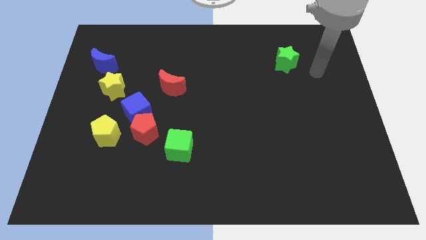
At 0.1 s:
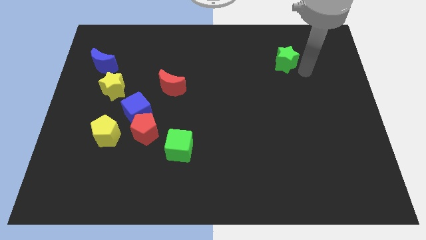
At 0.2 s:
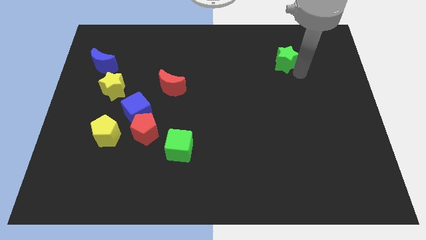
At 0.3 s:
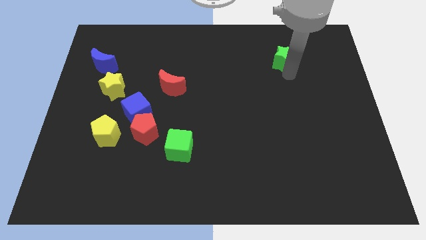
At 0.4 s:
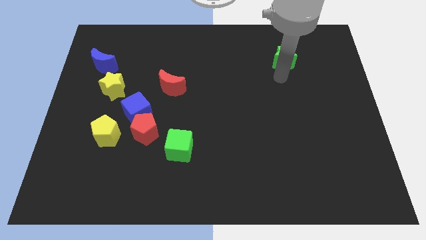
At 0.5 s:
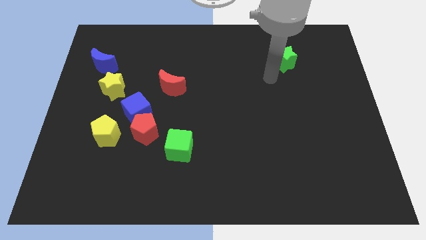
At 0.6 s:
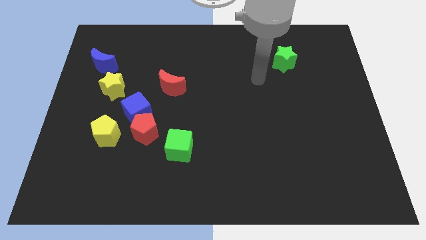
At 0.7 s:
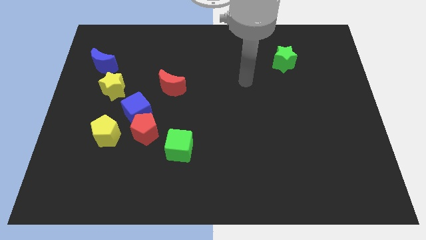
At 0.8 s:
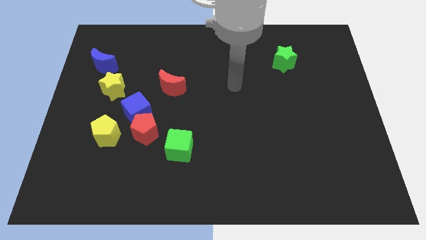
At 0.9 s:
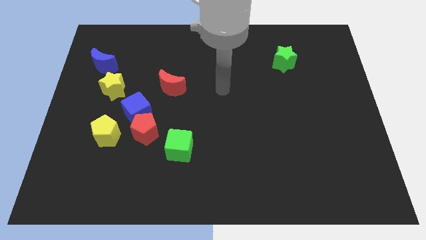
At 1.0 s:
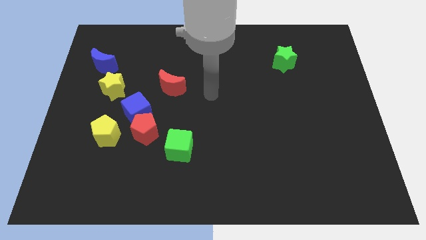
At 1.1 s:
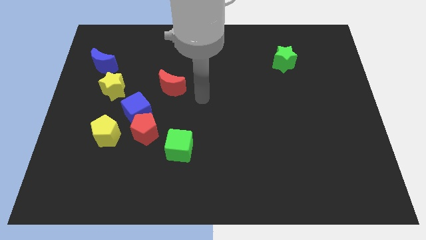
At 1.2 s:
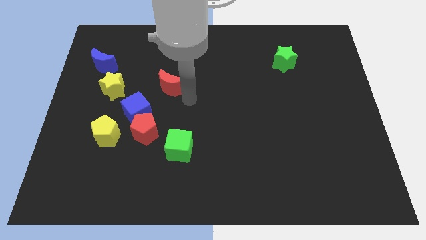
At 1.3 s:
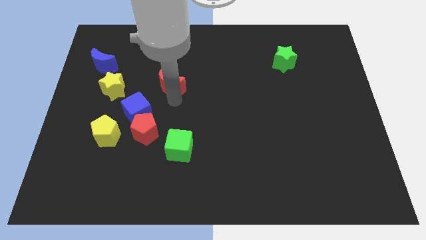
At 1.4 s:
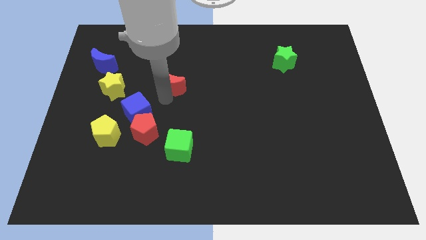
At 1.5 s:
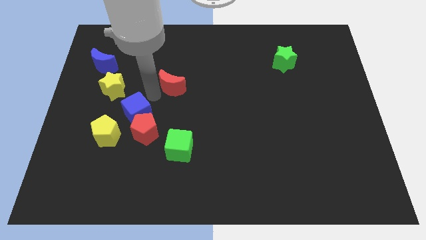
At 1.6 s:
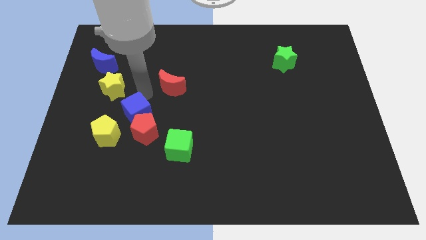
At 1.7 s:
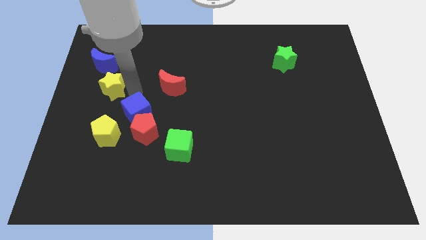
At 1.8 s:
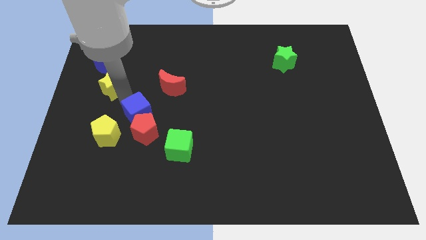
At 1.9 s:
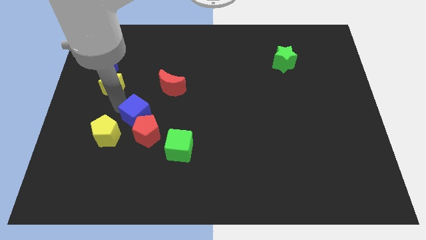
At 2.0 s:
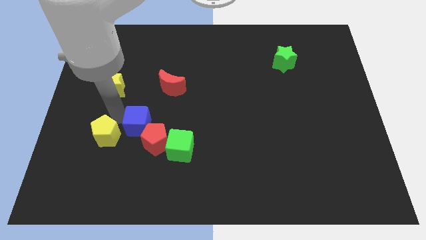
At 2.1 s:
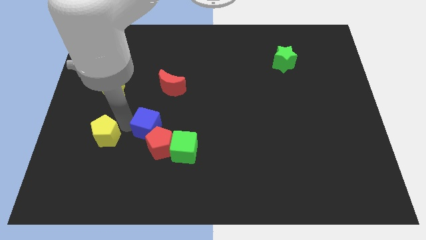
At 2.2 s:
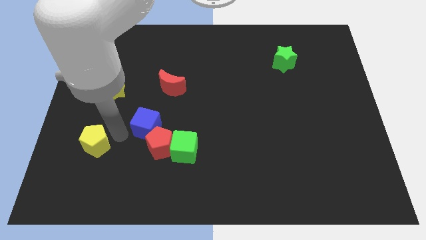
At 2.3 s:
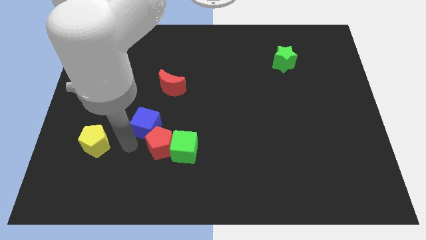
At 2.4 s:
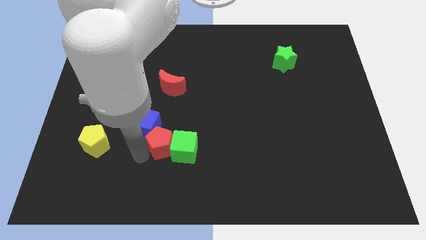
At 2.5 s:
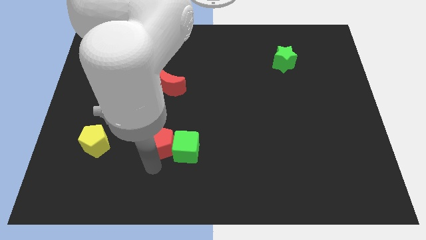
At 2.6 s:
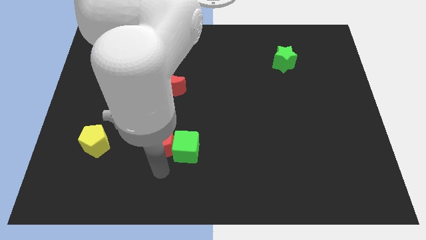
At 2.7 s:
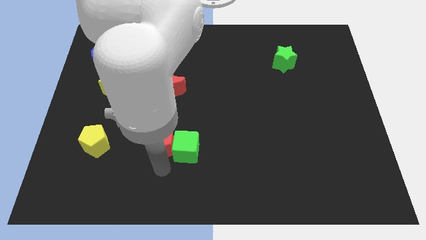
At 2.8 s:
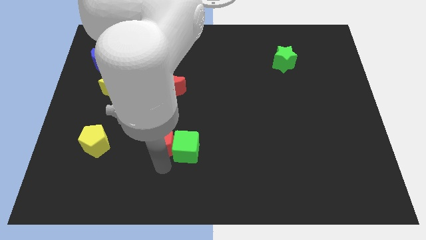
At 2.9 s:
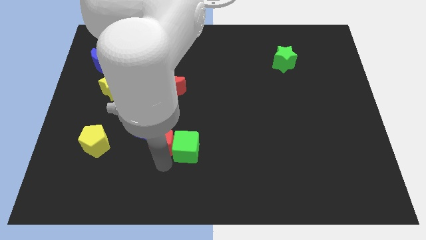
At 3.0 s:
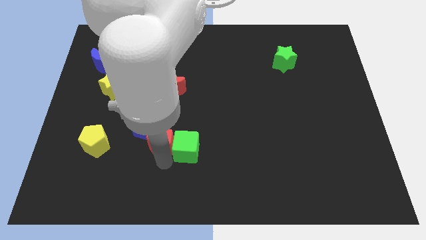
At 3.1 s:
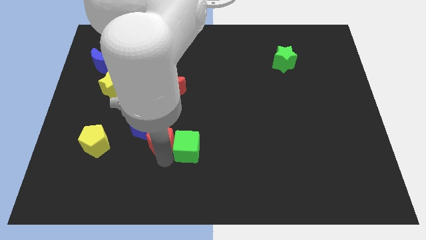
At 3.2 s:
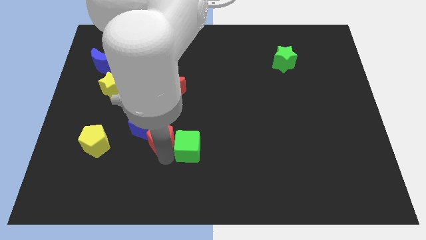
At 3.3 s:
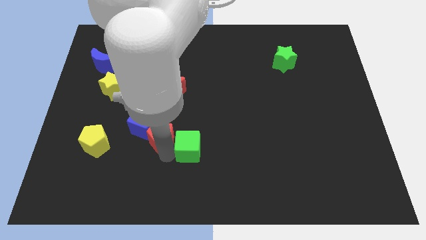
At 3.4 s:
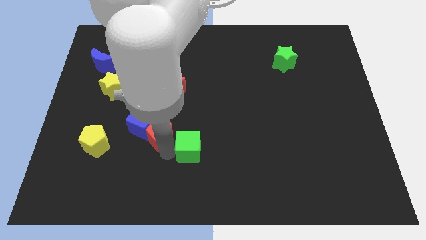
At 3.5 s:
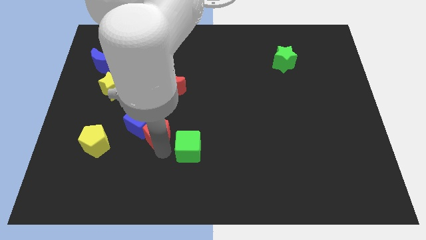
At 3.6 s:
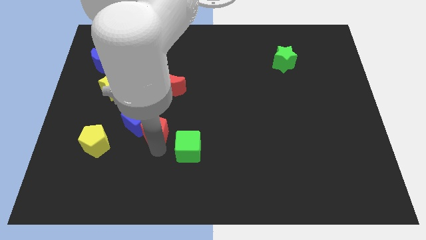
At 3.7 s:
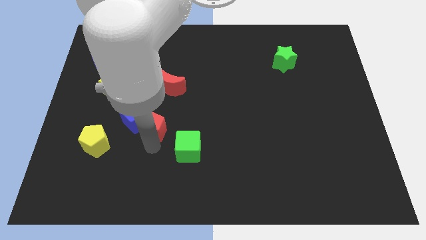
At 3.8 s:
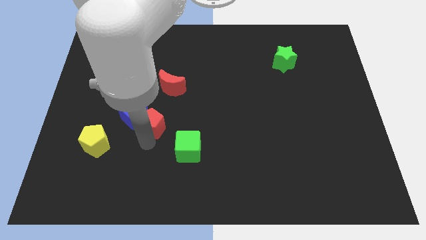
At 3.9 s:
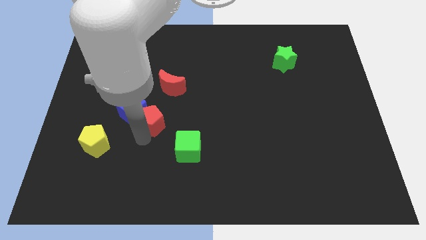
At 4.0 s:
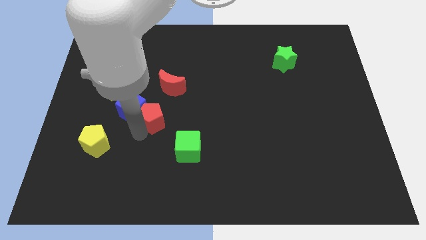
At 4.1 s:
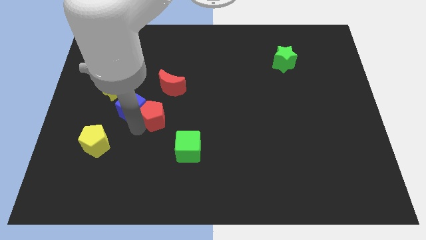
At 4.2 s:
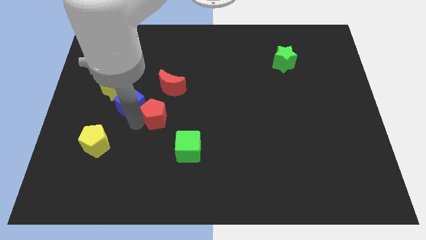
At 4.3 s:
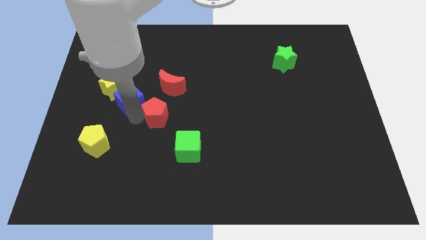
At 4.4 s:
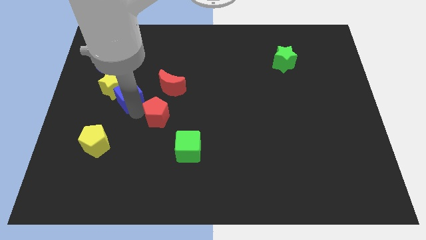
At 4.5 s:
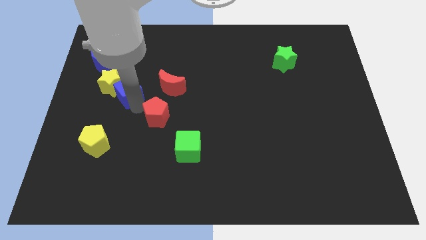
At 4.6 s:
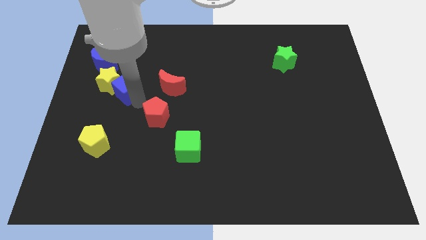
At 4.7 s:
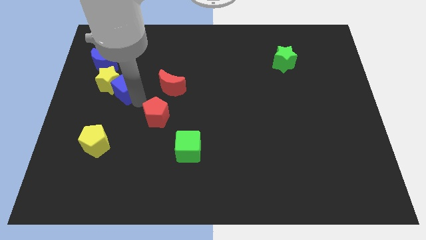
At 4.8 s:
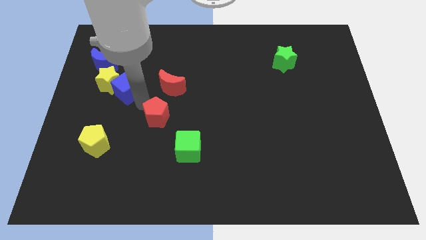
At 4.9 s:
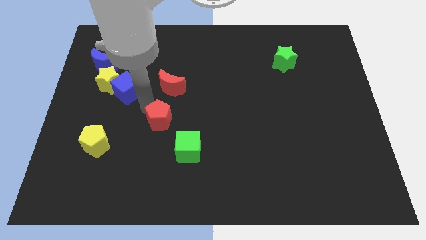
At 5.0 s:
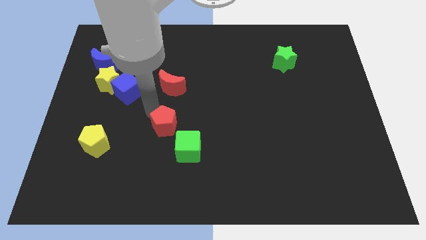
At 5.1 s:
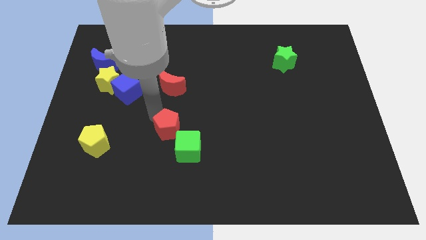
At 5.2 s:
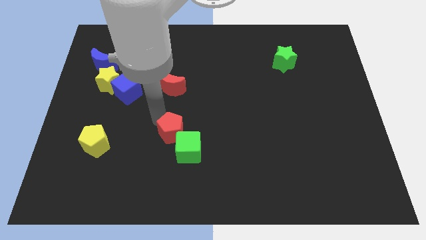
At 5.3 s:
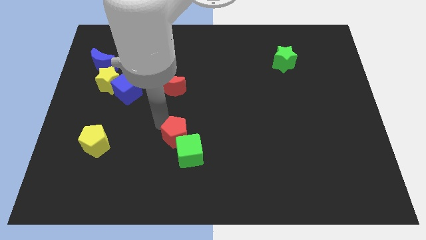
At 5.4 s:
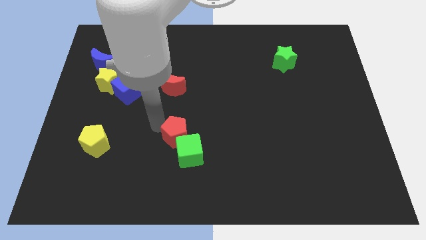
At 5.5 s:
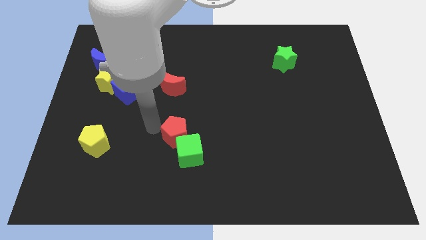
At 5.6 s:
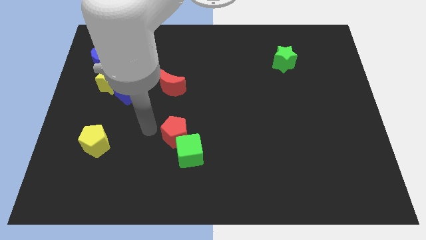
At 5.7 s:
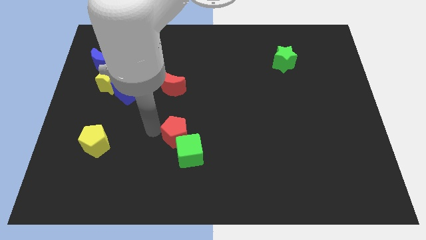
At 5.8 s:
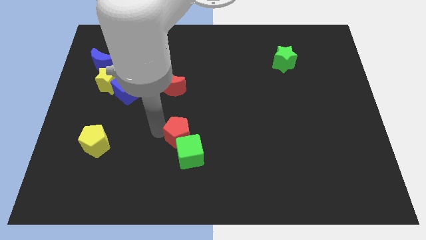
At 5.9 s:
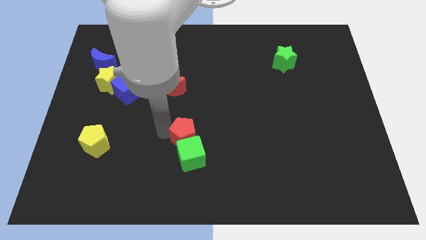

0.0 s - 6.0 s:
move the red pentagon away from the group

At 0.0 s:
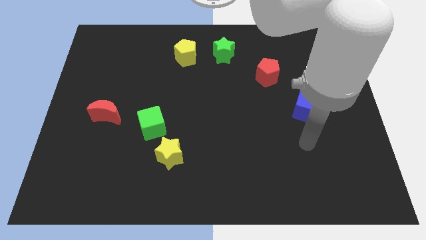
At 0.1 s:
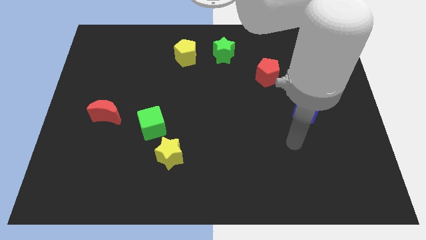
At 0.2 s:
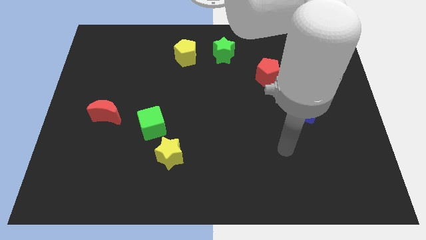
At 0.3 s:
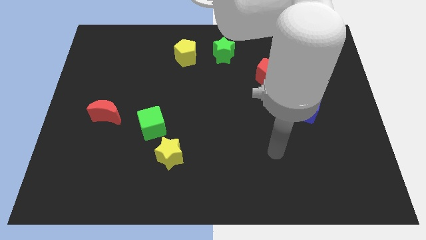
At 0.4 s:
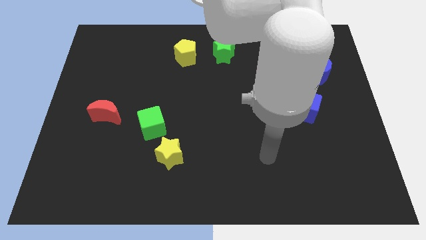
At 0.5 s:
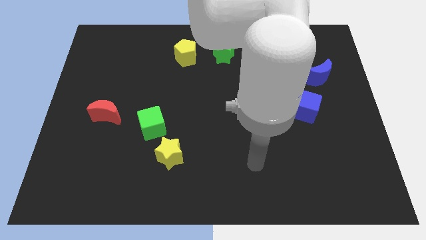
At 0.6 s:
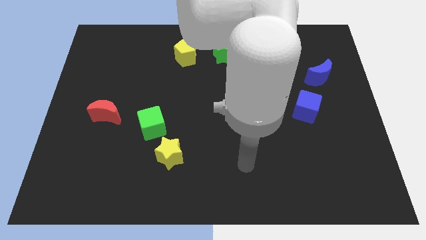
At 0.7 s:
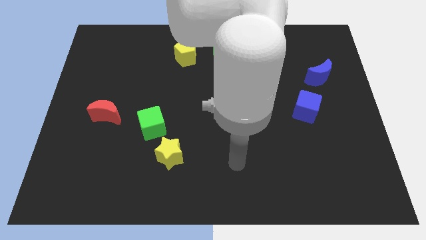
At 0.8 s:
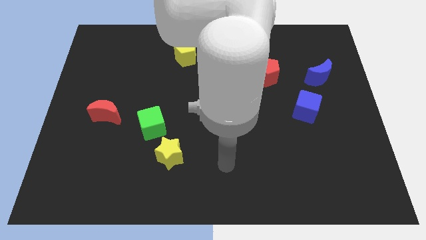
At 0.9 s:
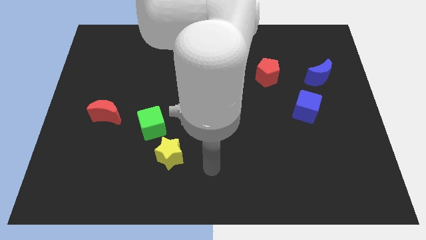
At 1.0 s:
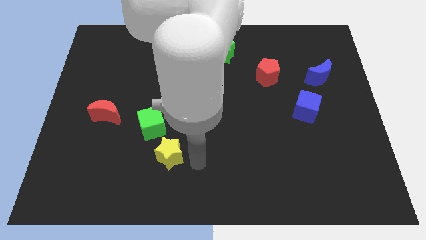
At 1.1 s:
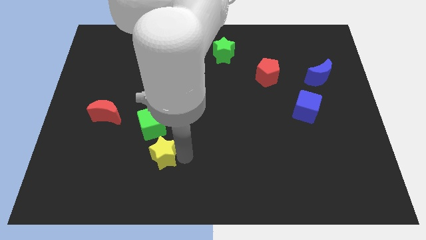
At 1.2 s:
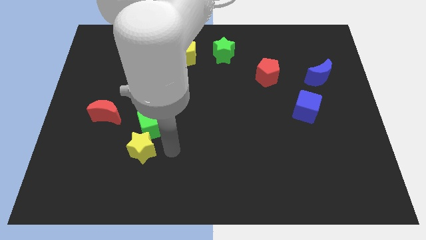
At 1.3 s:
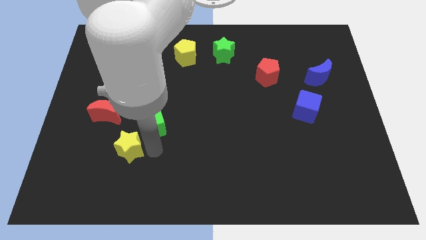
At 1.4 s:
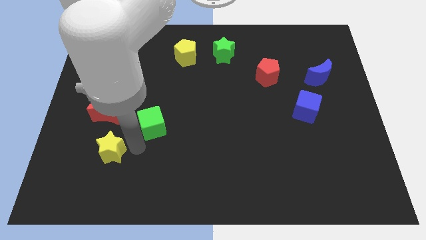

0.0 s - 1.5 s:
pull the green cube apart from the yellow star

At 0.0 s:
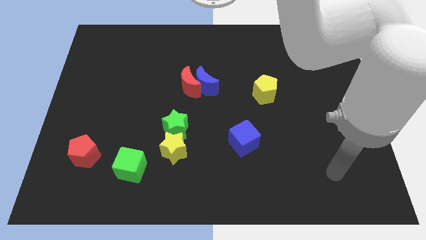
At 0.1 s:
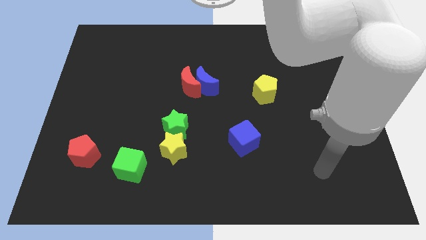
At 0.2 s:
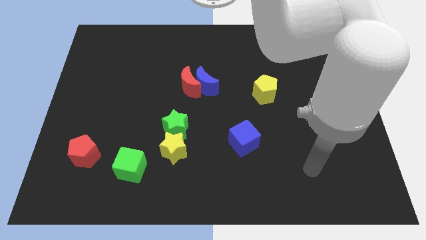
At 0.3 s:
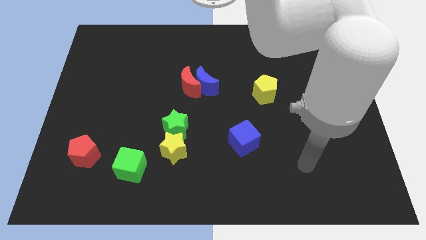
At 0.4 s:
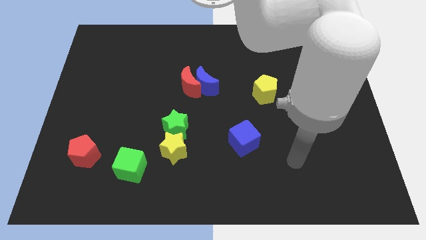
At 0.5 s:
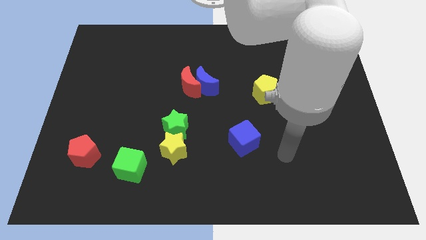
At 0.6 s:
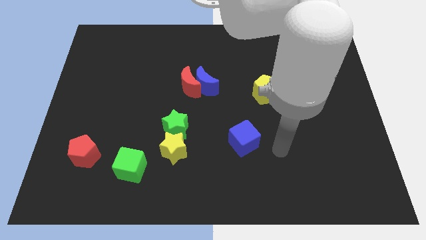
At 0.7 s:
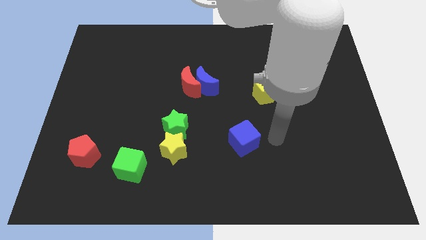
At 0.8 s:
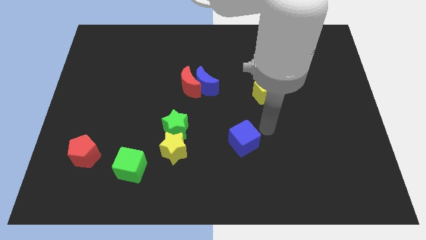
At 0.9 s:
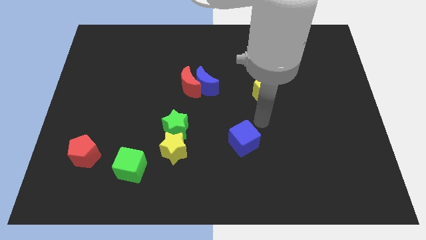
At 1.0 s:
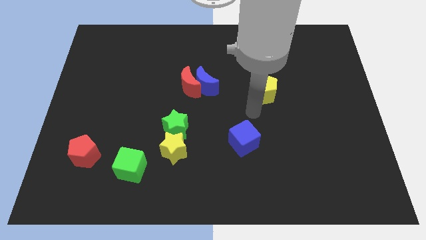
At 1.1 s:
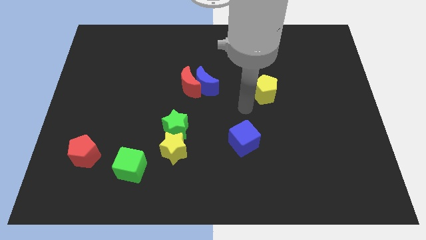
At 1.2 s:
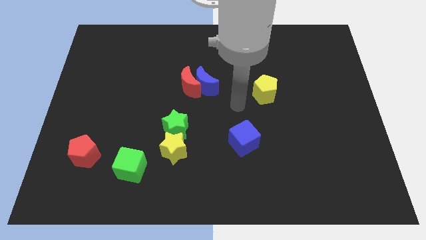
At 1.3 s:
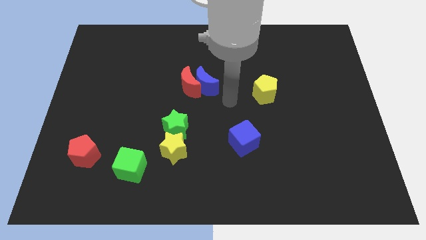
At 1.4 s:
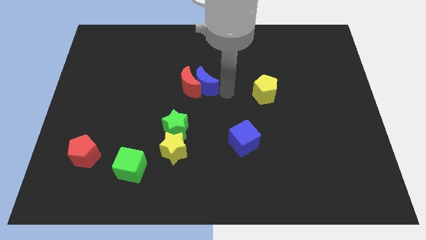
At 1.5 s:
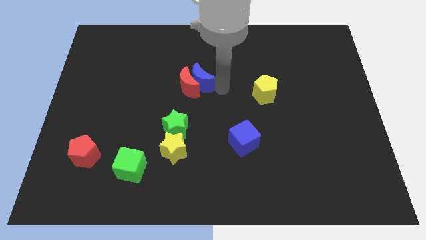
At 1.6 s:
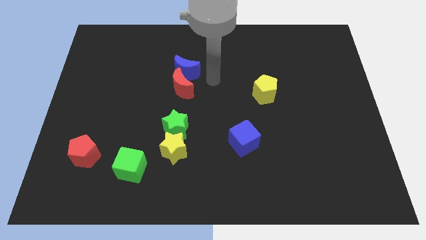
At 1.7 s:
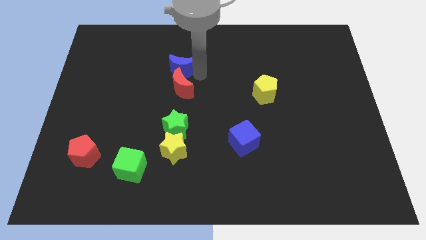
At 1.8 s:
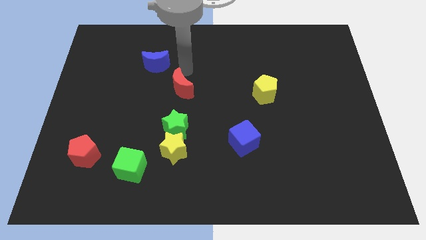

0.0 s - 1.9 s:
pull the red moon apart from the blue moon

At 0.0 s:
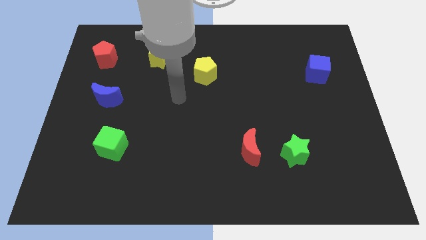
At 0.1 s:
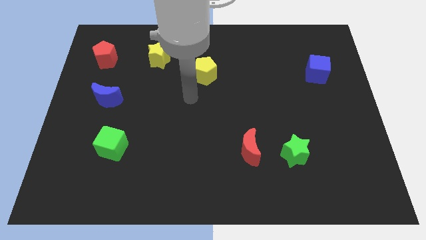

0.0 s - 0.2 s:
separate the red moon from the green star
